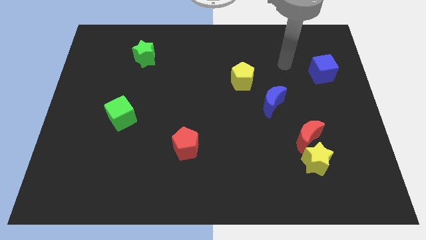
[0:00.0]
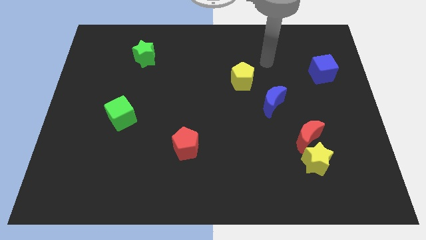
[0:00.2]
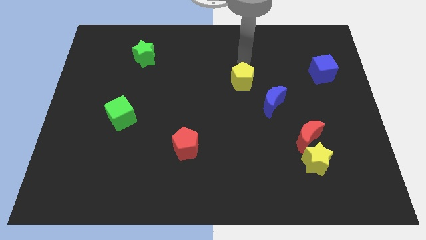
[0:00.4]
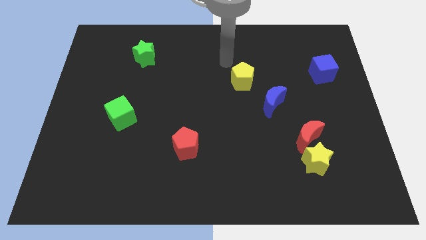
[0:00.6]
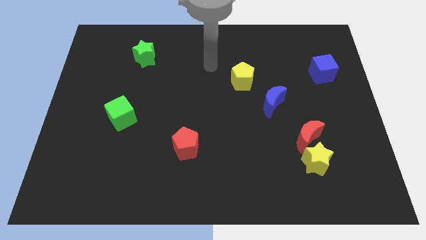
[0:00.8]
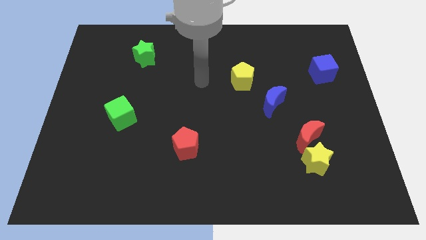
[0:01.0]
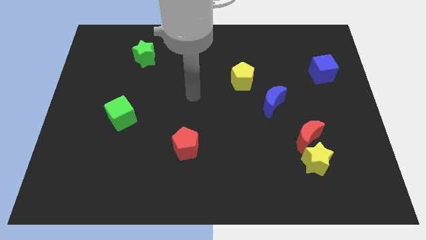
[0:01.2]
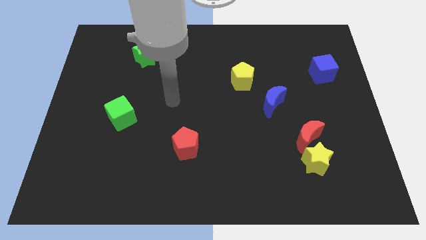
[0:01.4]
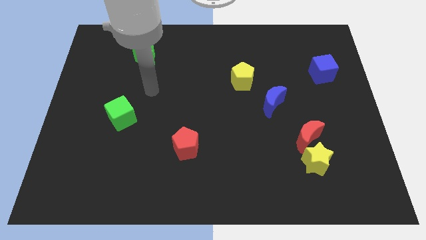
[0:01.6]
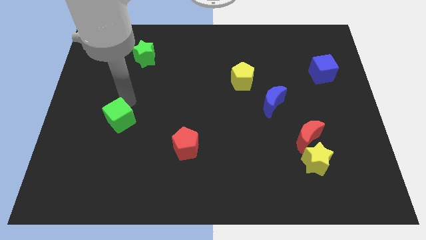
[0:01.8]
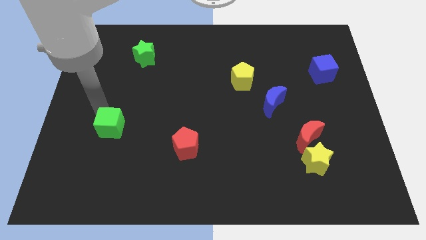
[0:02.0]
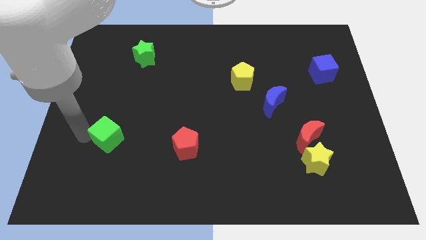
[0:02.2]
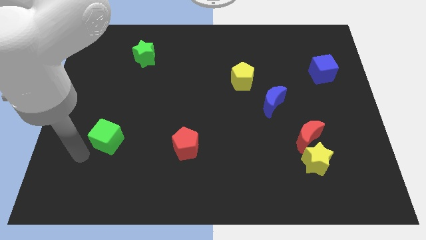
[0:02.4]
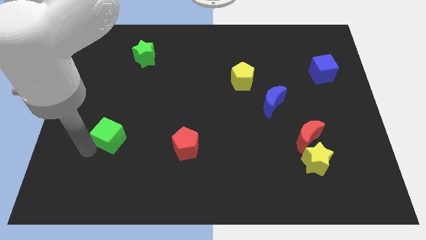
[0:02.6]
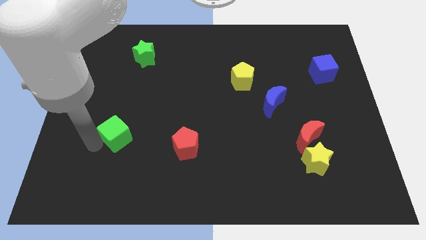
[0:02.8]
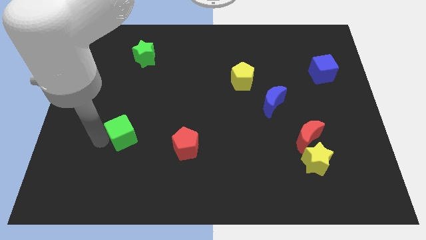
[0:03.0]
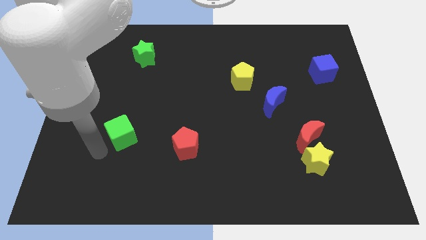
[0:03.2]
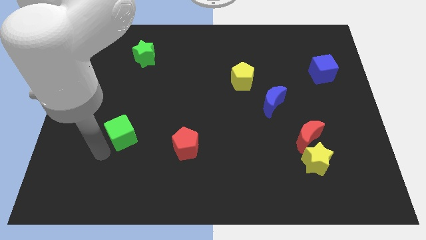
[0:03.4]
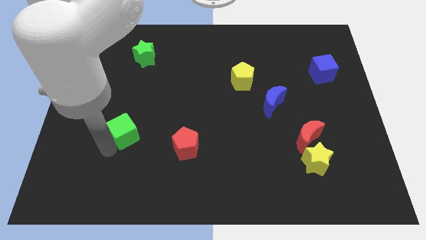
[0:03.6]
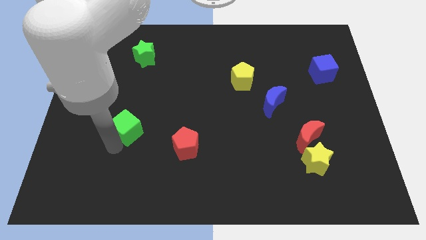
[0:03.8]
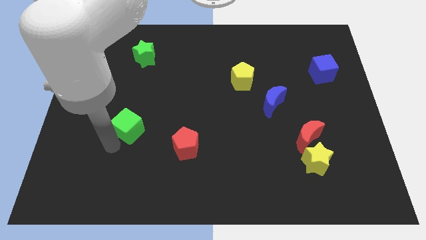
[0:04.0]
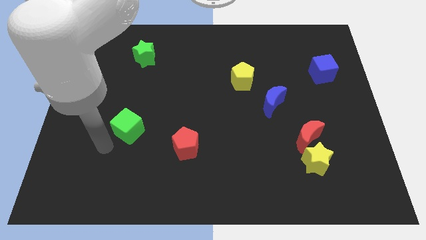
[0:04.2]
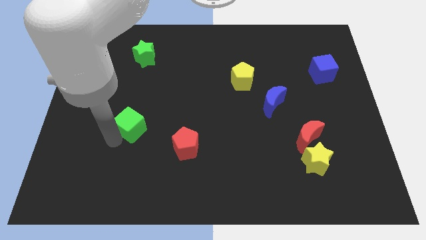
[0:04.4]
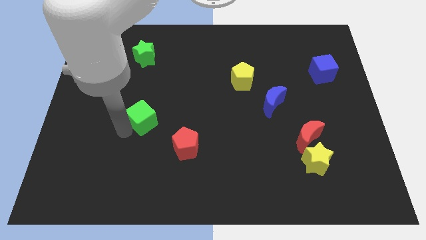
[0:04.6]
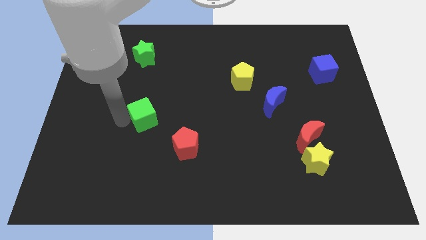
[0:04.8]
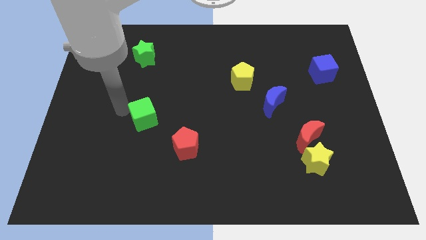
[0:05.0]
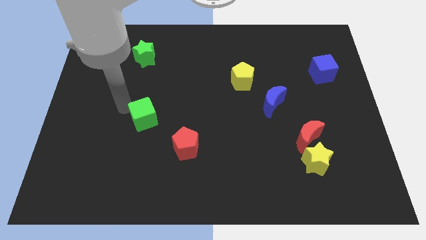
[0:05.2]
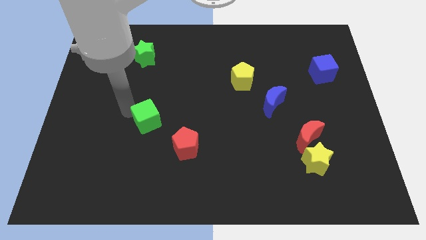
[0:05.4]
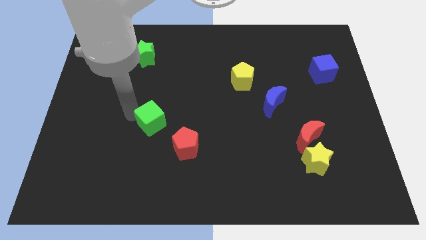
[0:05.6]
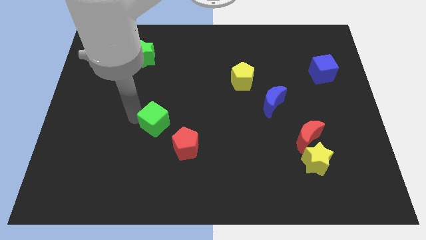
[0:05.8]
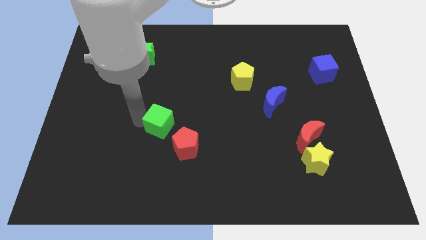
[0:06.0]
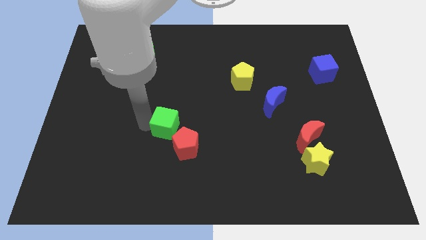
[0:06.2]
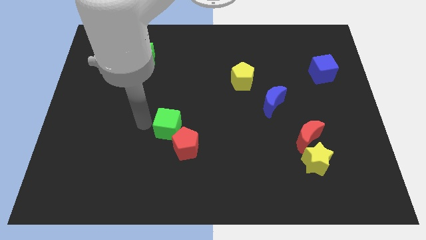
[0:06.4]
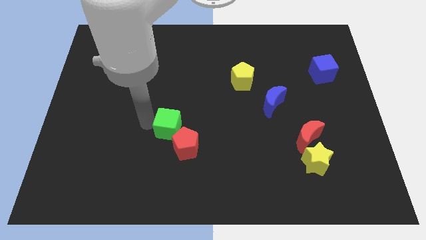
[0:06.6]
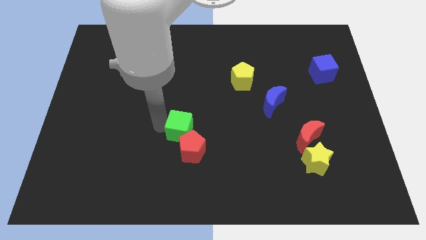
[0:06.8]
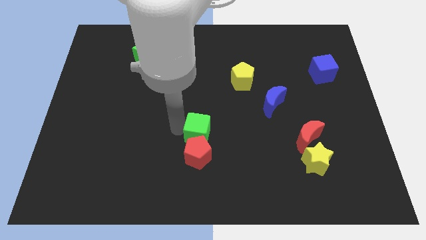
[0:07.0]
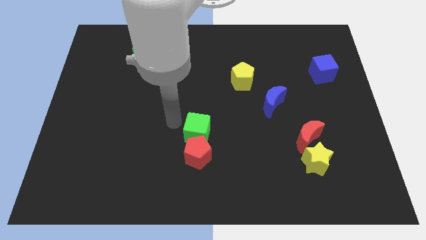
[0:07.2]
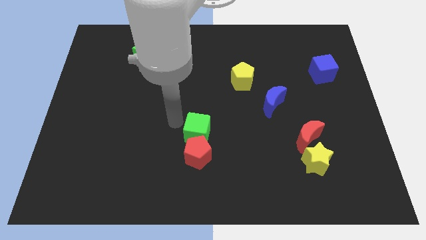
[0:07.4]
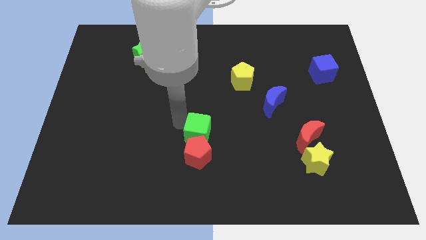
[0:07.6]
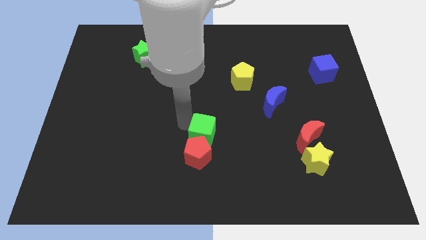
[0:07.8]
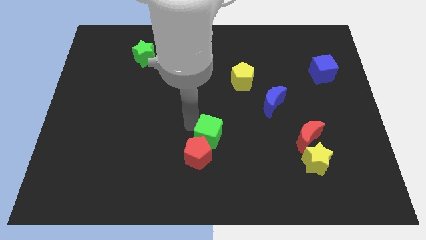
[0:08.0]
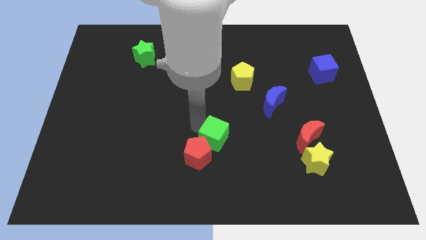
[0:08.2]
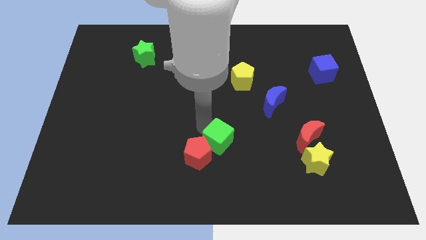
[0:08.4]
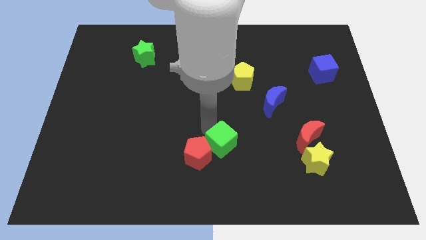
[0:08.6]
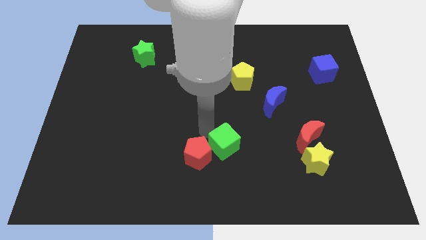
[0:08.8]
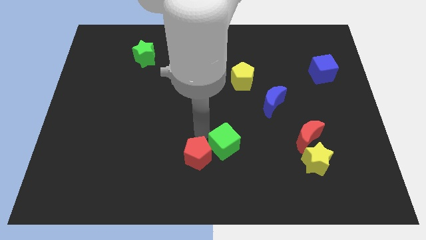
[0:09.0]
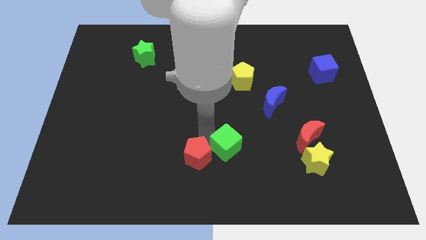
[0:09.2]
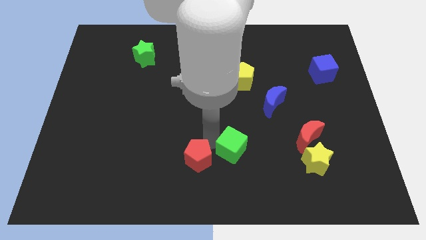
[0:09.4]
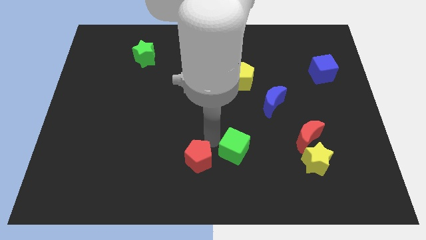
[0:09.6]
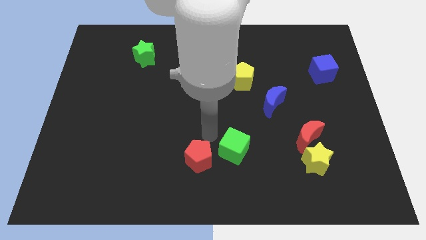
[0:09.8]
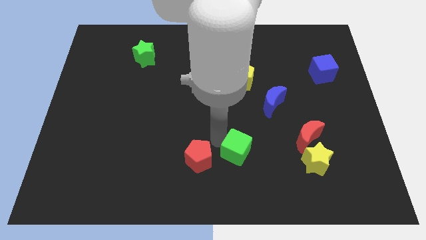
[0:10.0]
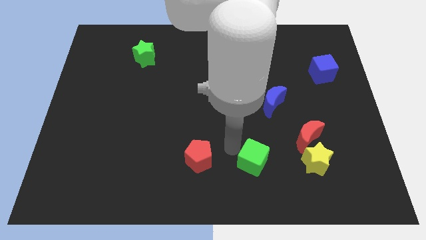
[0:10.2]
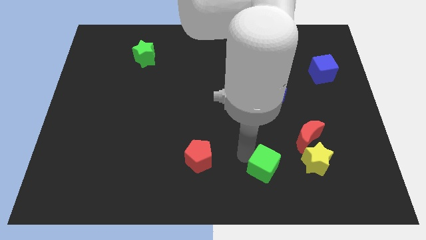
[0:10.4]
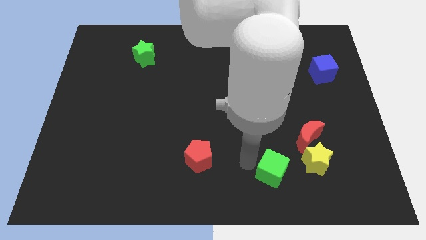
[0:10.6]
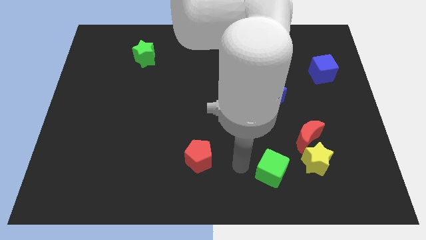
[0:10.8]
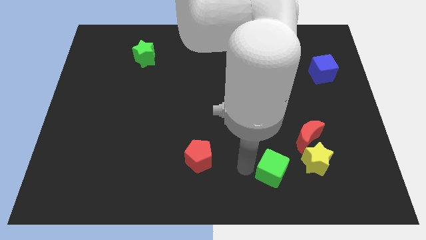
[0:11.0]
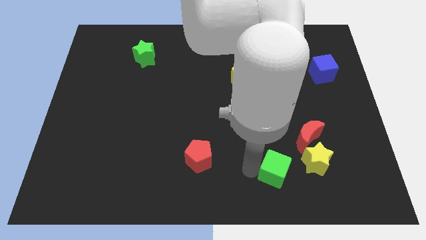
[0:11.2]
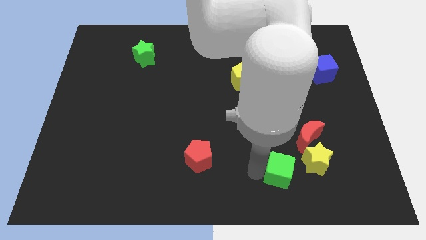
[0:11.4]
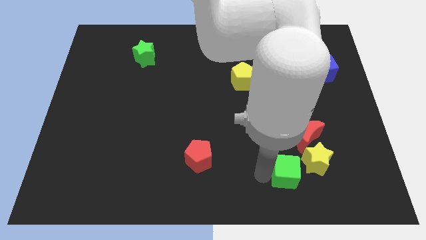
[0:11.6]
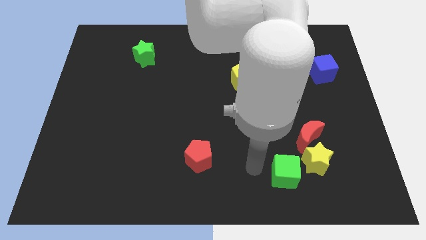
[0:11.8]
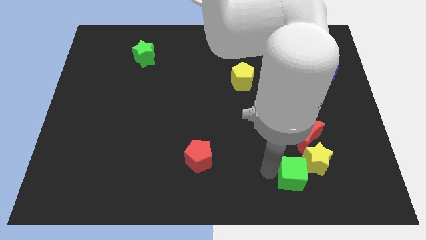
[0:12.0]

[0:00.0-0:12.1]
put the green cube to the bottom of the red moon

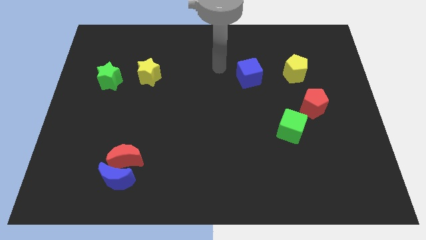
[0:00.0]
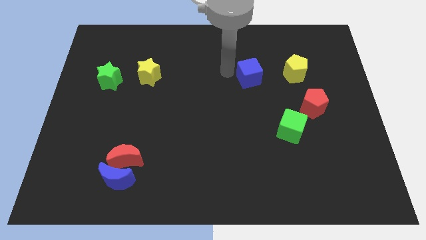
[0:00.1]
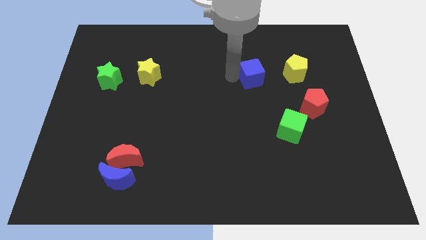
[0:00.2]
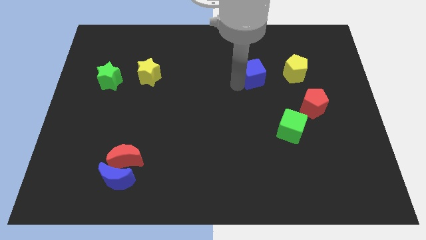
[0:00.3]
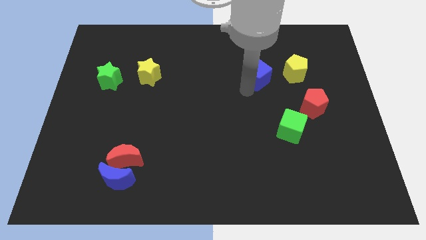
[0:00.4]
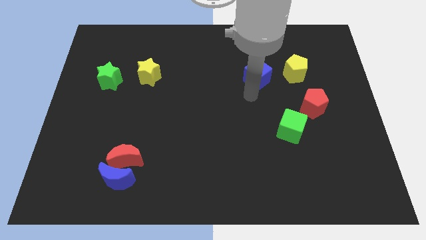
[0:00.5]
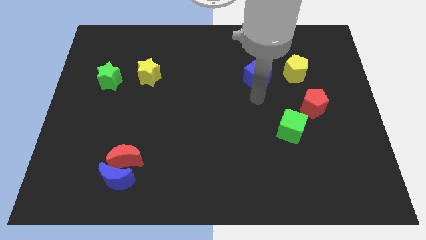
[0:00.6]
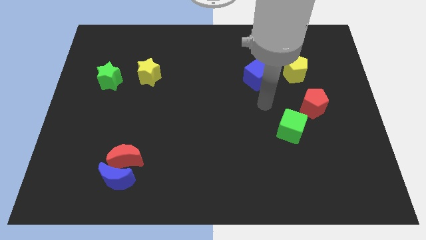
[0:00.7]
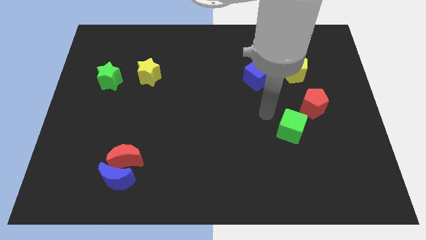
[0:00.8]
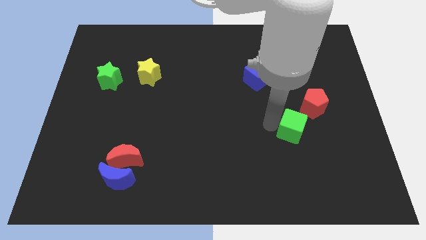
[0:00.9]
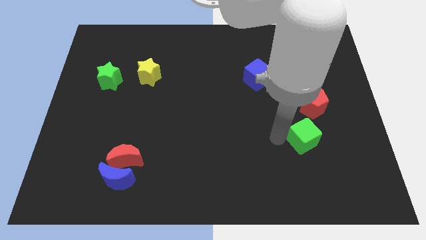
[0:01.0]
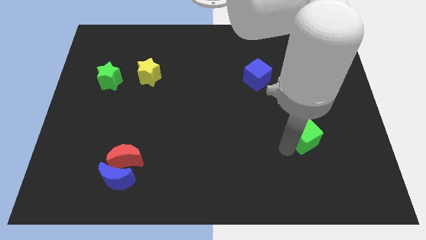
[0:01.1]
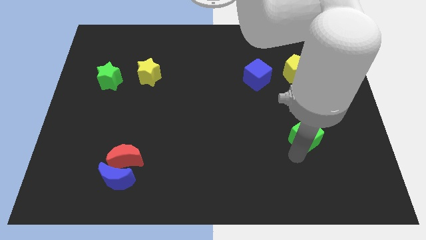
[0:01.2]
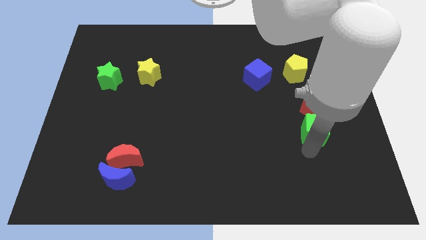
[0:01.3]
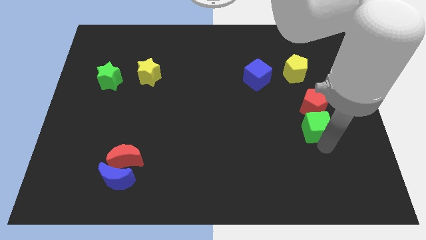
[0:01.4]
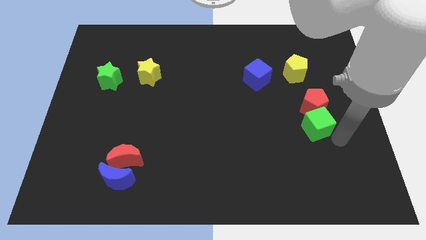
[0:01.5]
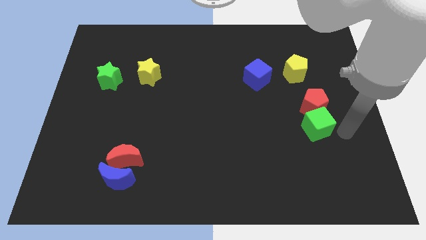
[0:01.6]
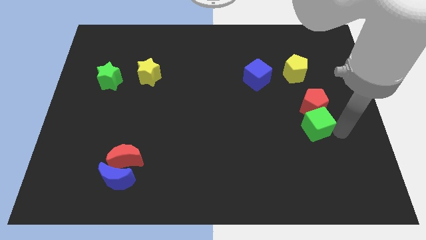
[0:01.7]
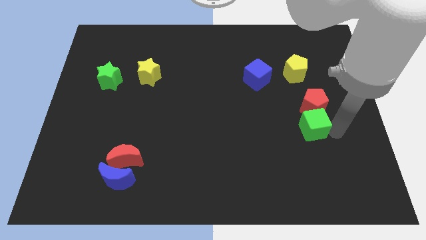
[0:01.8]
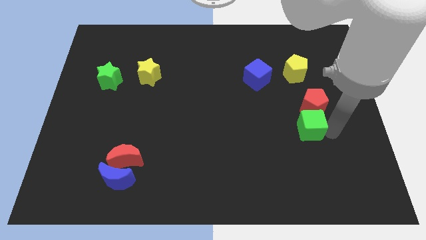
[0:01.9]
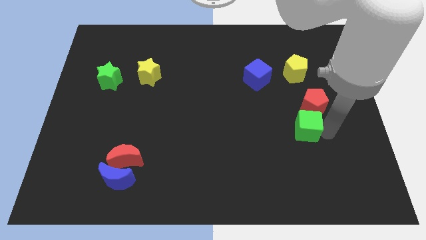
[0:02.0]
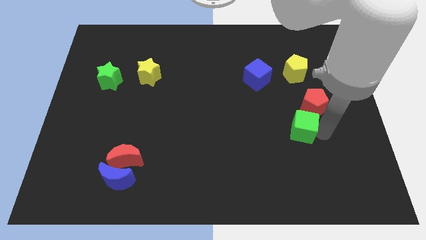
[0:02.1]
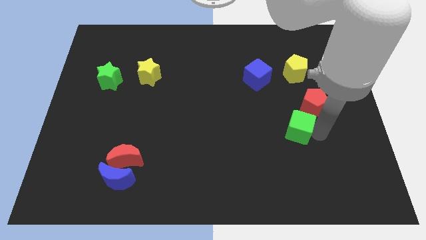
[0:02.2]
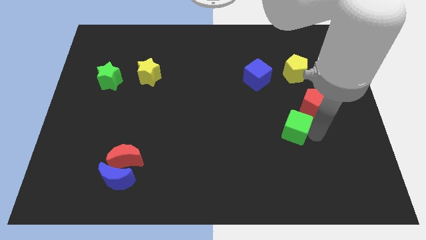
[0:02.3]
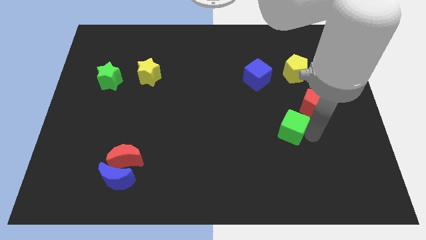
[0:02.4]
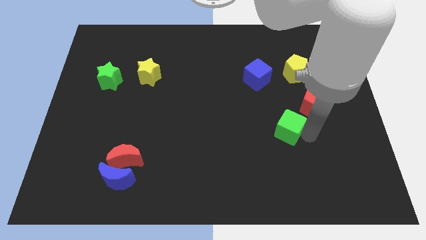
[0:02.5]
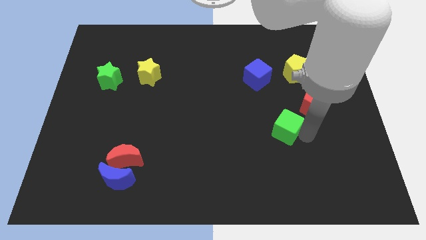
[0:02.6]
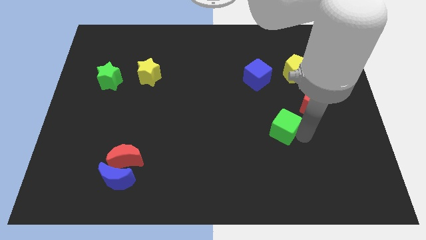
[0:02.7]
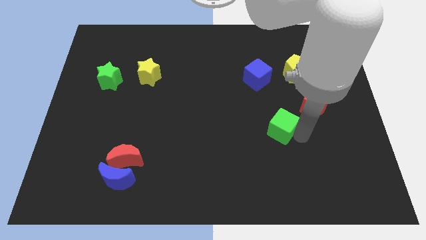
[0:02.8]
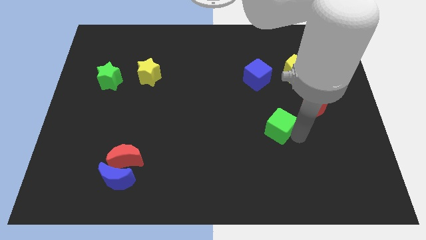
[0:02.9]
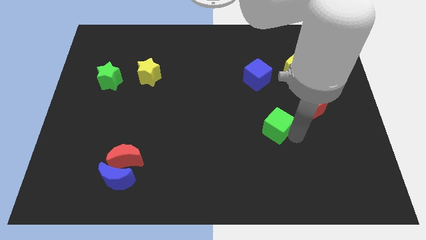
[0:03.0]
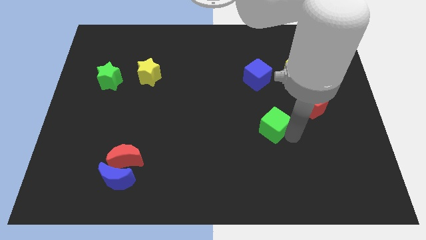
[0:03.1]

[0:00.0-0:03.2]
put the green cube to the bottom of the blue cube
